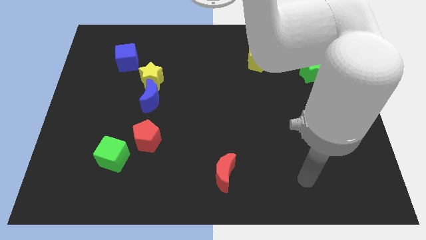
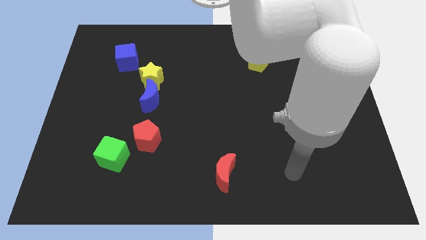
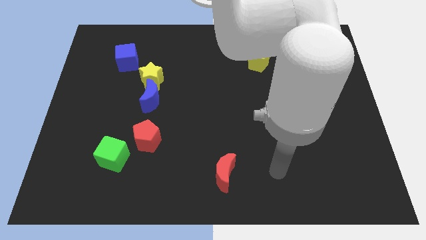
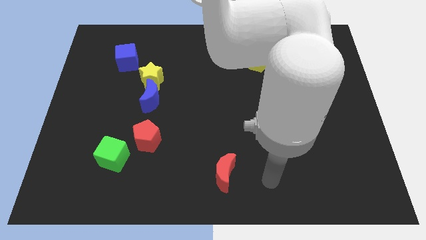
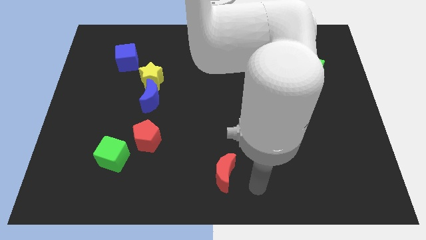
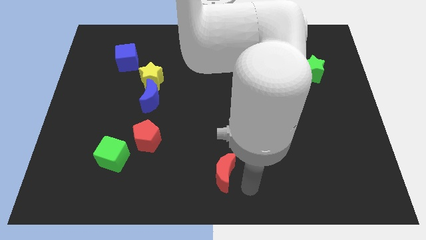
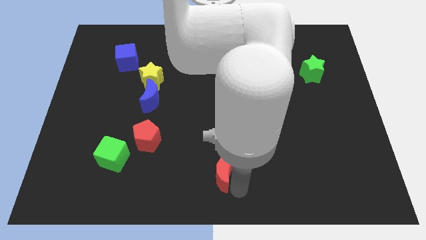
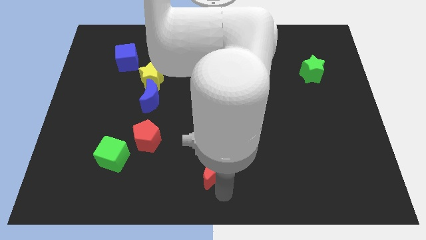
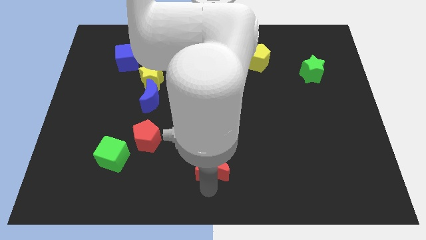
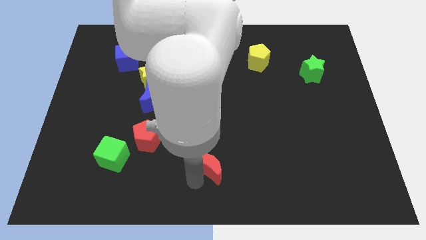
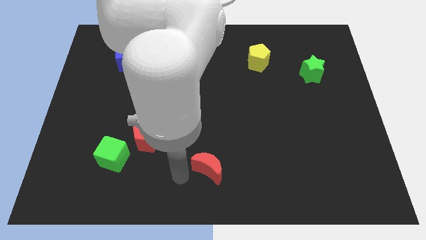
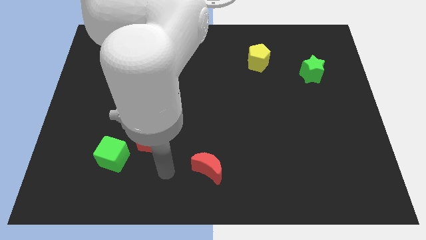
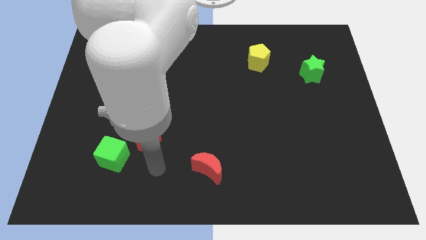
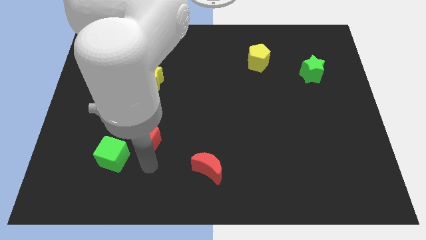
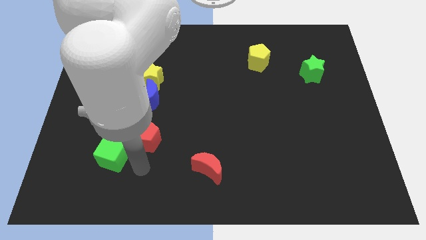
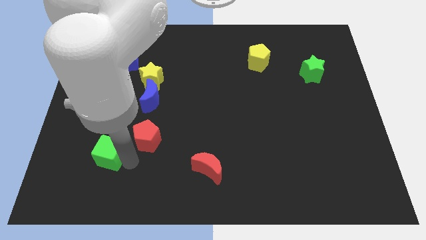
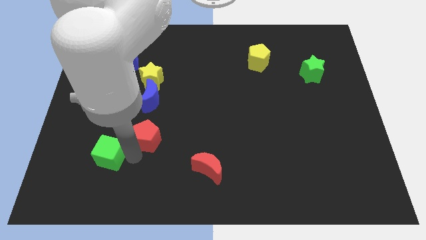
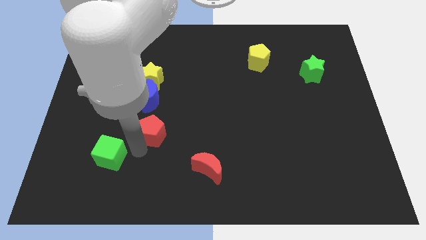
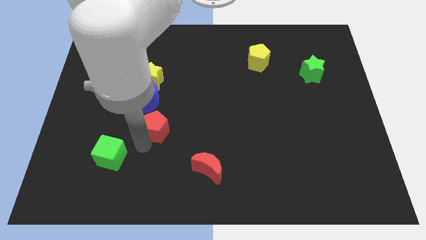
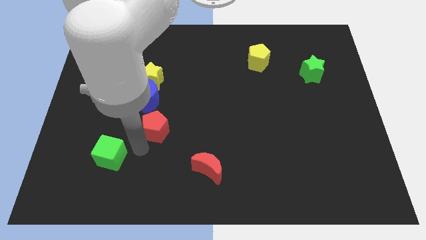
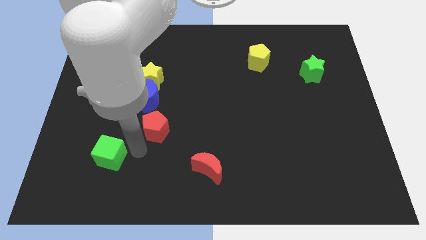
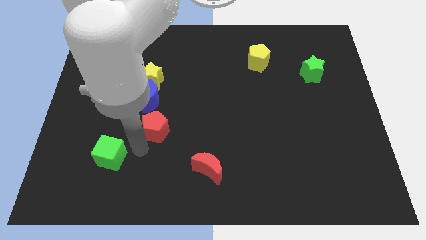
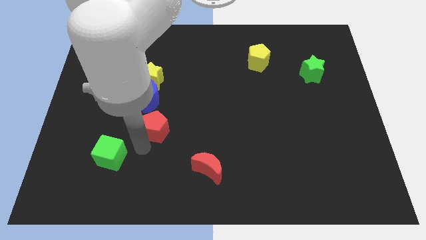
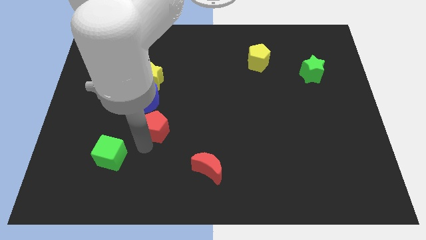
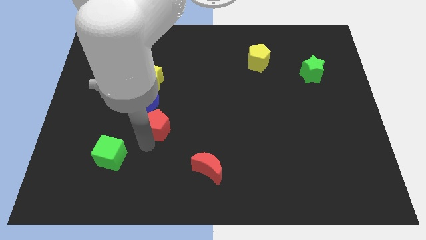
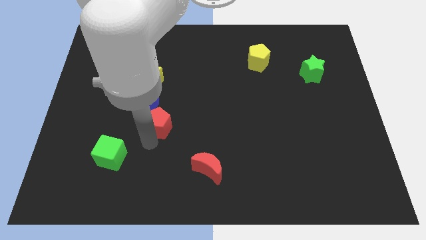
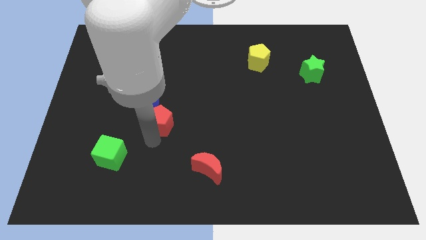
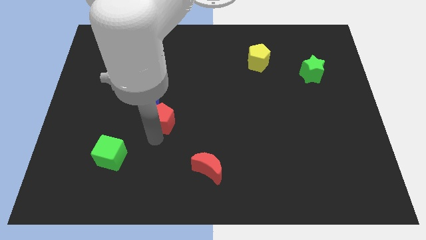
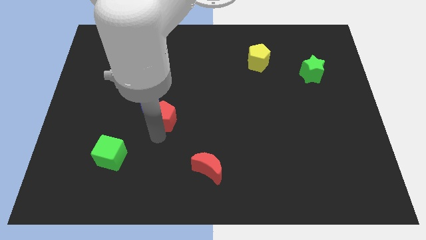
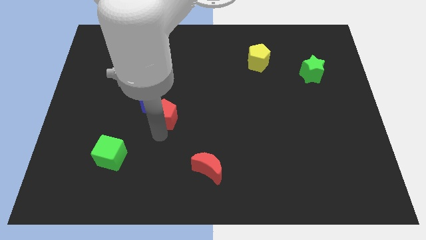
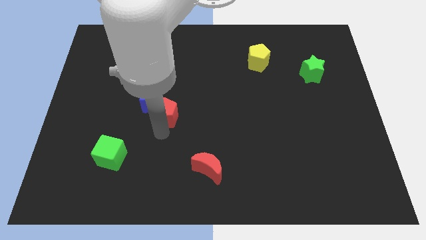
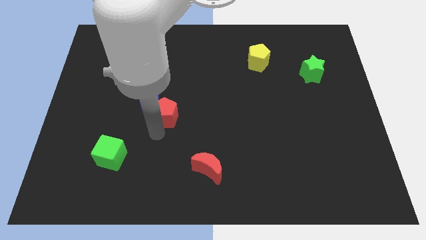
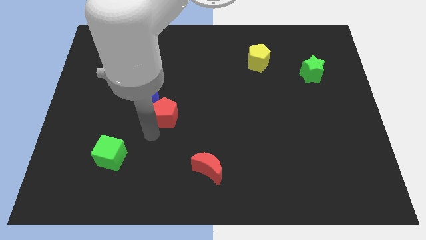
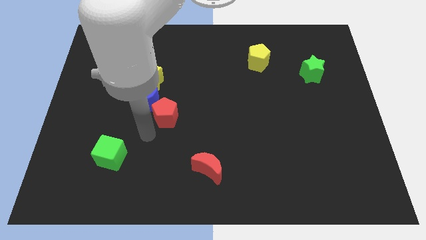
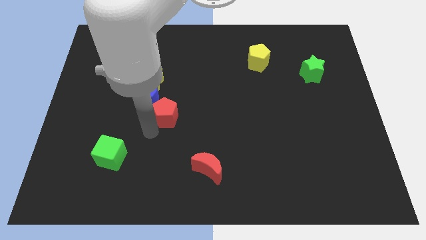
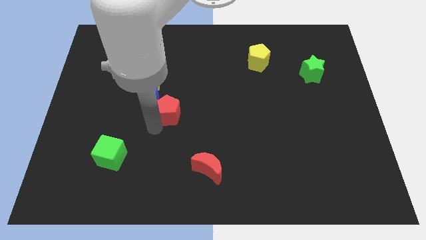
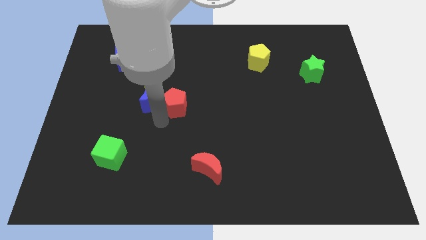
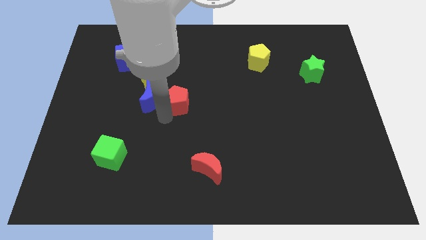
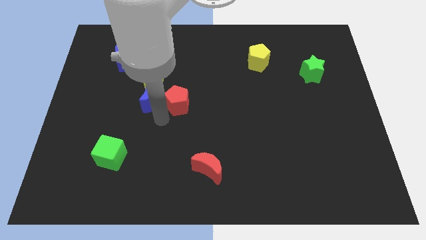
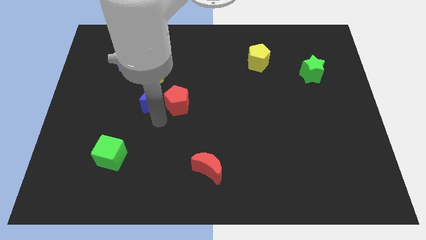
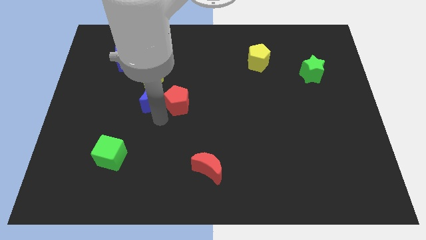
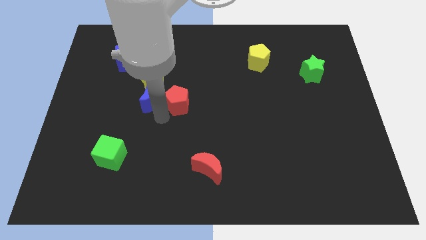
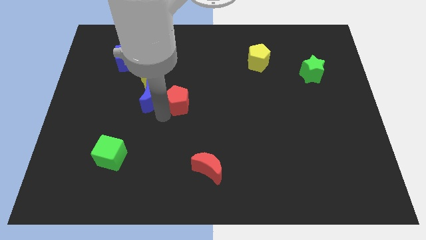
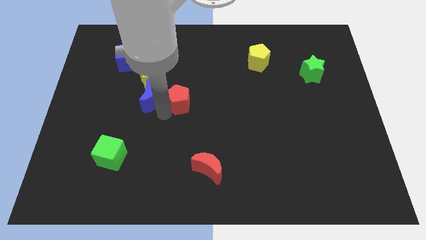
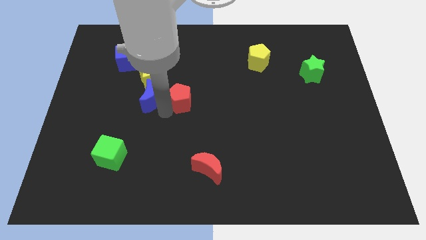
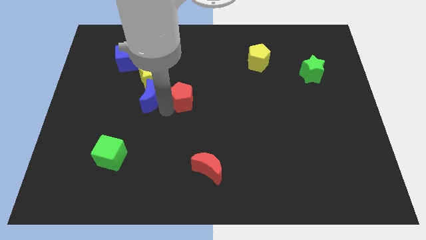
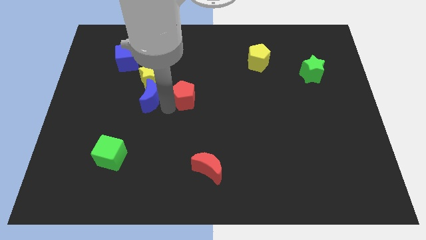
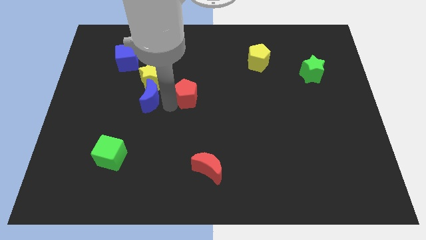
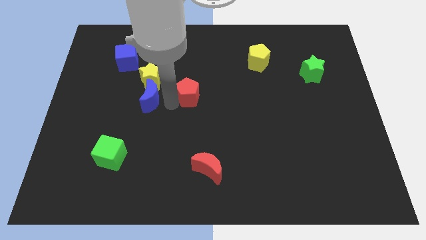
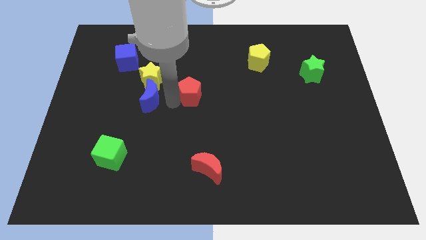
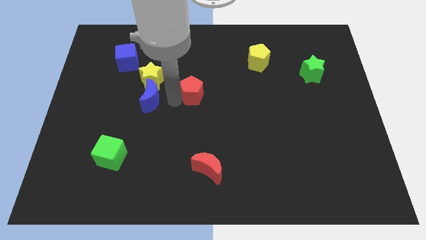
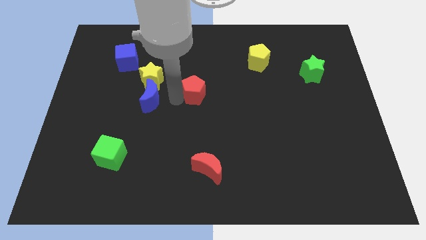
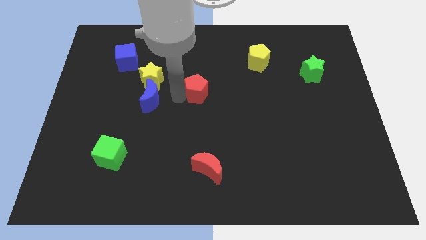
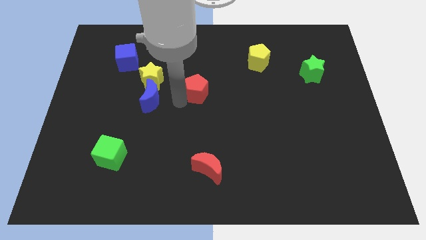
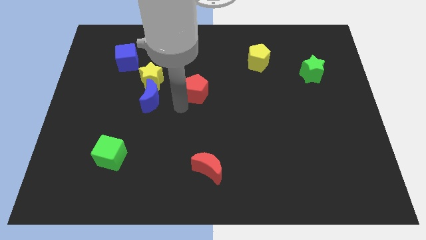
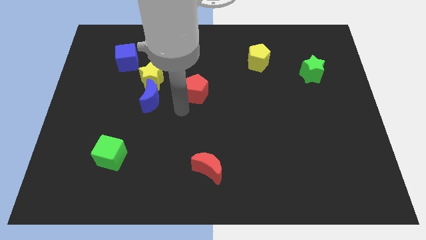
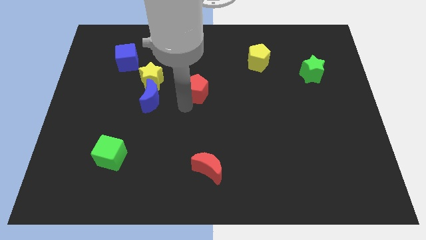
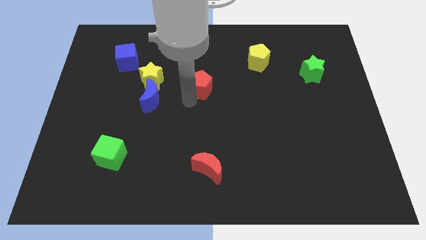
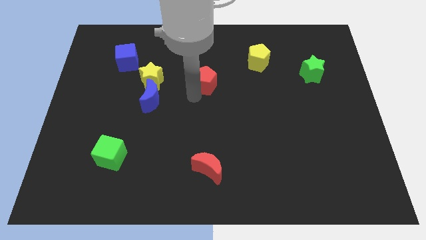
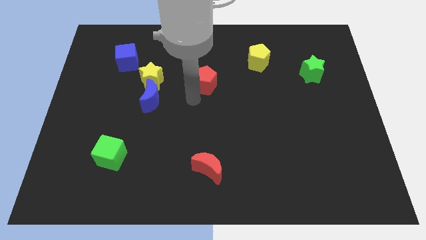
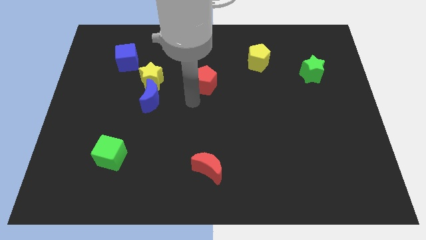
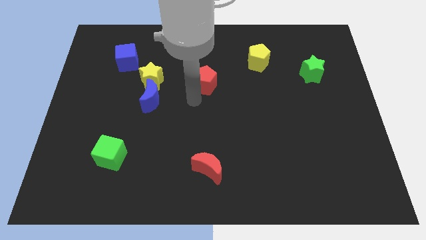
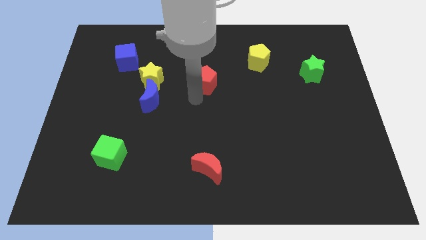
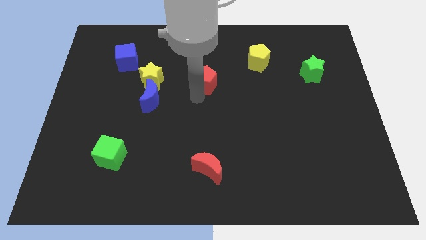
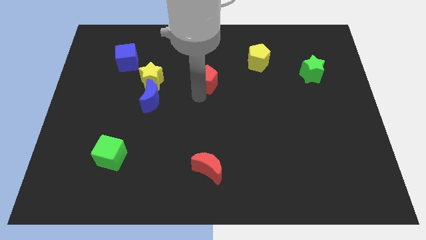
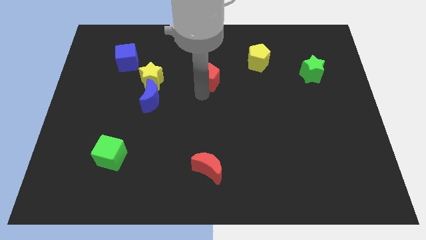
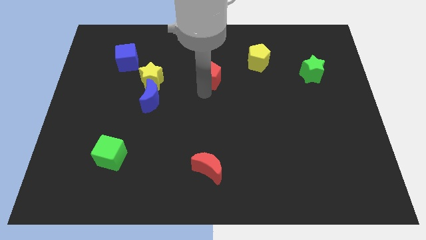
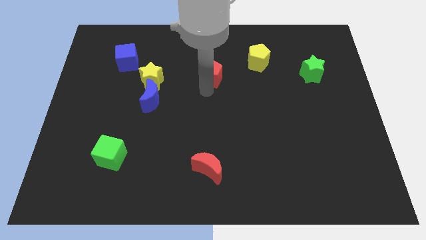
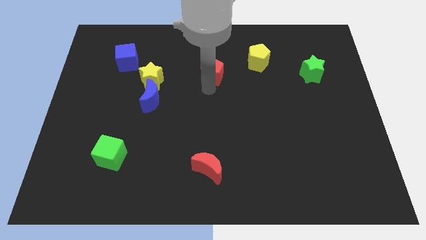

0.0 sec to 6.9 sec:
push the red pentagon to the left side of the yellow pentagon
